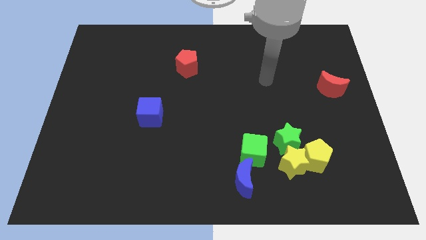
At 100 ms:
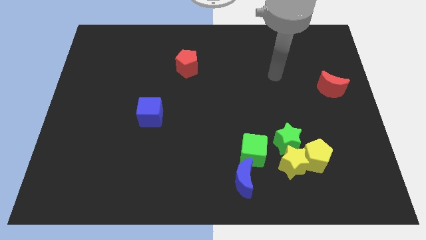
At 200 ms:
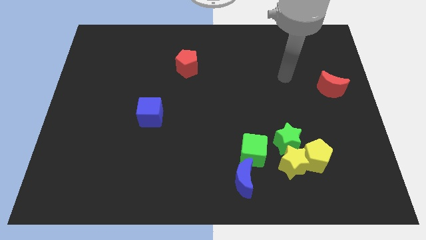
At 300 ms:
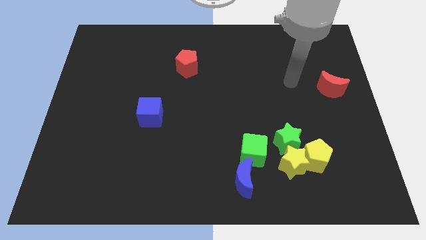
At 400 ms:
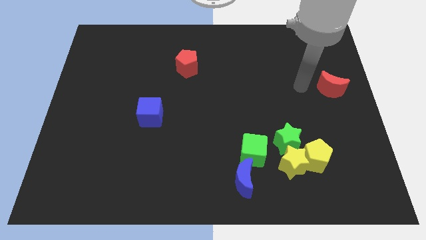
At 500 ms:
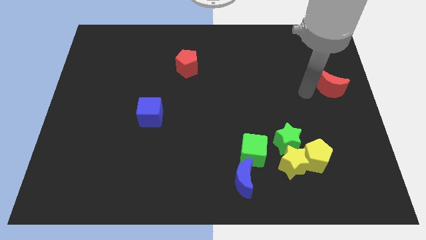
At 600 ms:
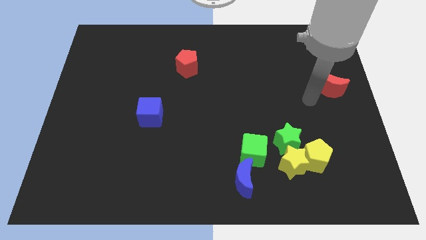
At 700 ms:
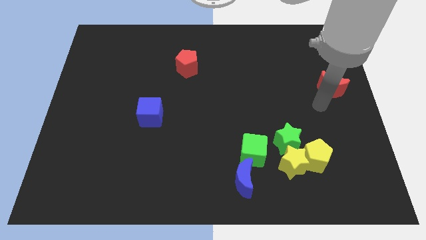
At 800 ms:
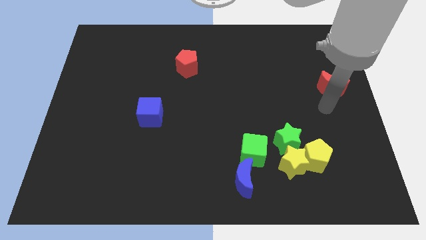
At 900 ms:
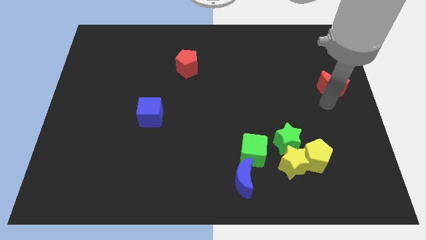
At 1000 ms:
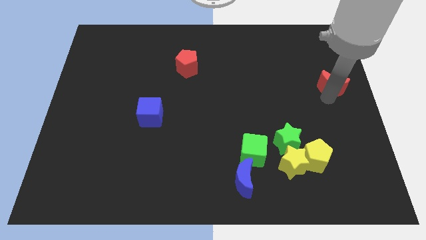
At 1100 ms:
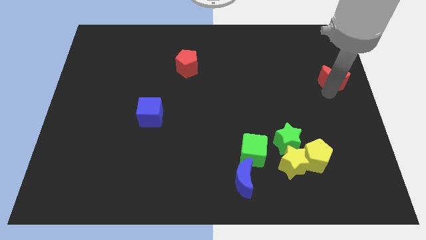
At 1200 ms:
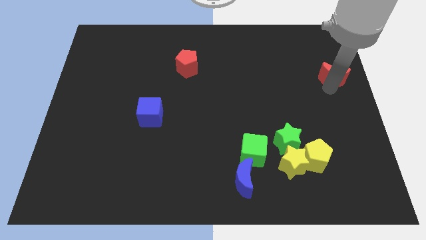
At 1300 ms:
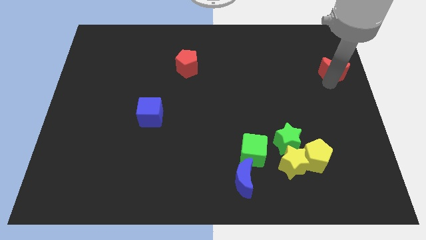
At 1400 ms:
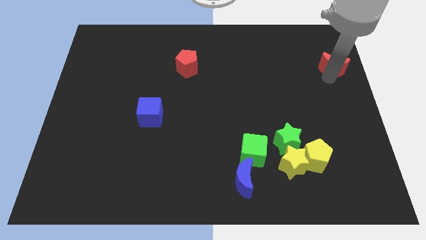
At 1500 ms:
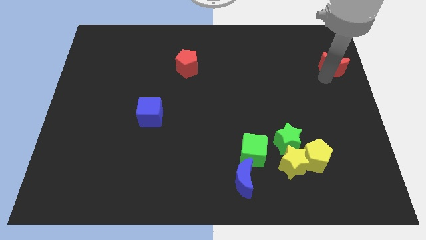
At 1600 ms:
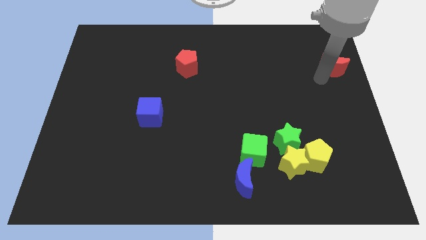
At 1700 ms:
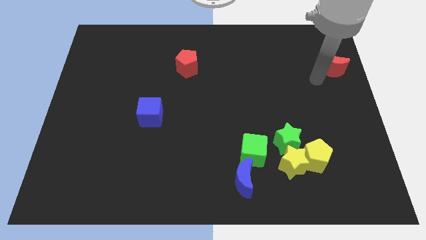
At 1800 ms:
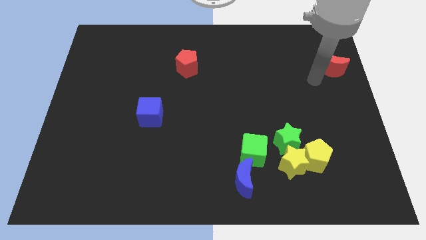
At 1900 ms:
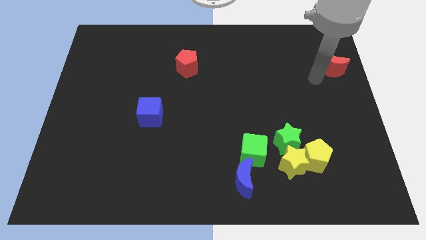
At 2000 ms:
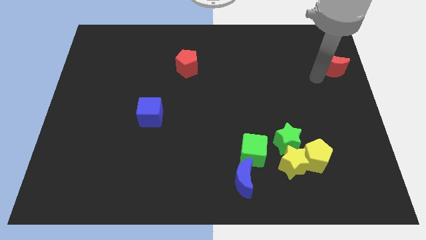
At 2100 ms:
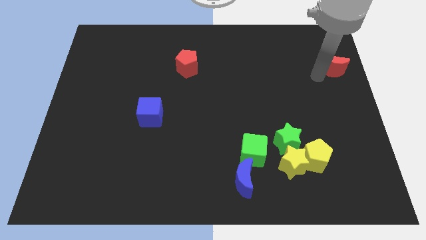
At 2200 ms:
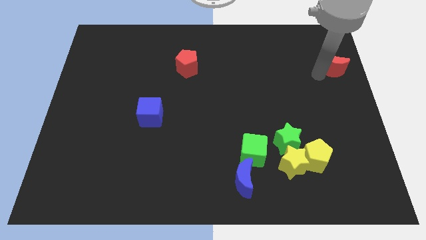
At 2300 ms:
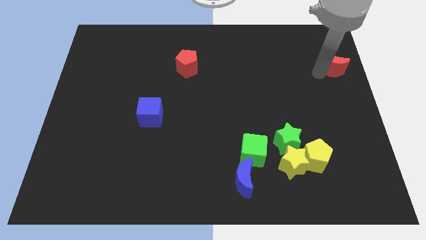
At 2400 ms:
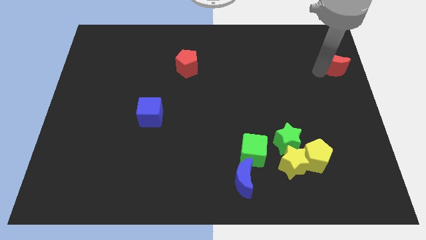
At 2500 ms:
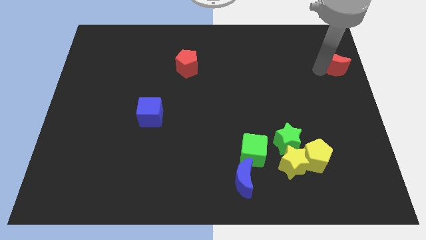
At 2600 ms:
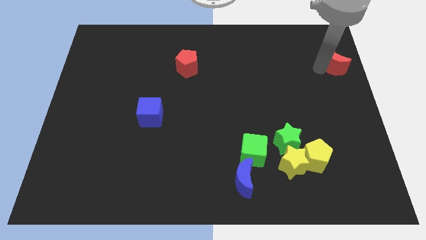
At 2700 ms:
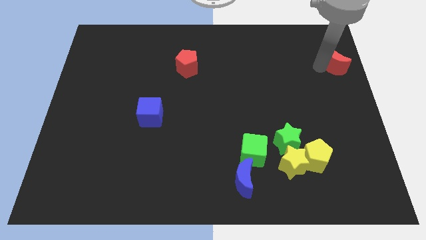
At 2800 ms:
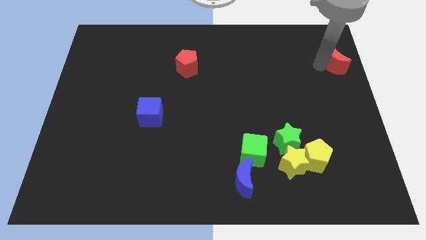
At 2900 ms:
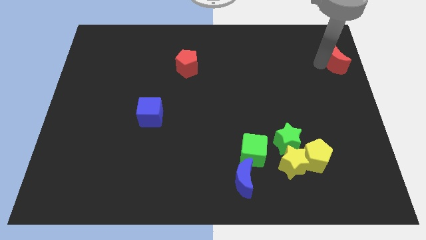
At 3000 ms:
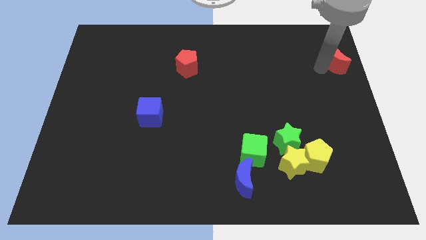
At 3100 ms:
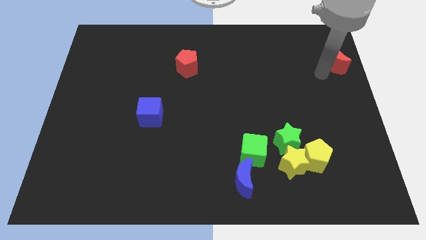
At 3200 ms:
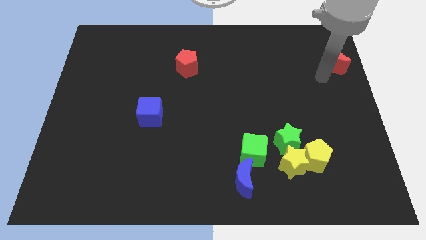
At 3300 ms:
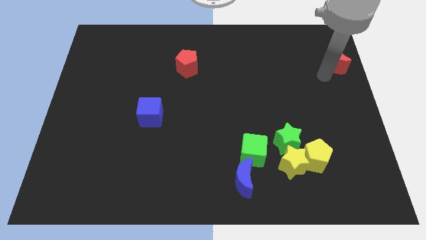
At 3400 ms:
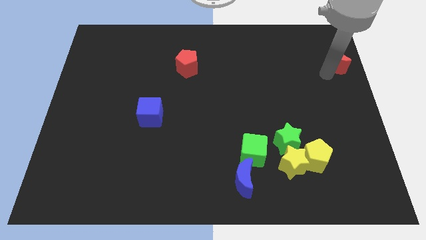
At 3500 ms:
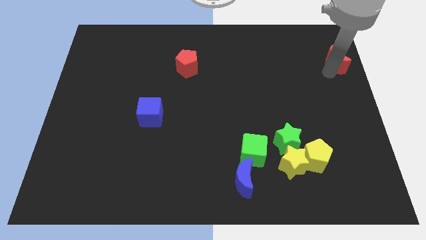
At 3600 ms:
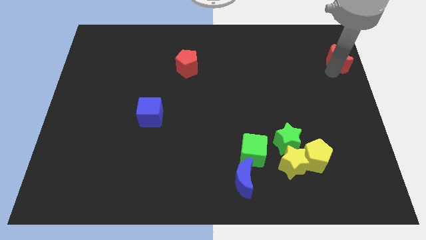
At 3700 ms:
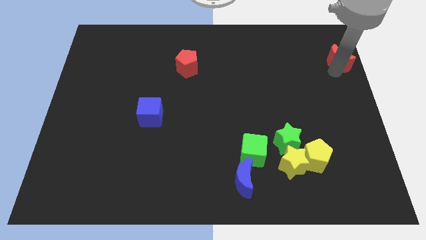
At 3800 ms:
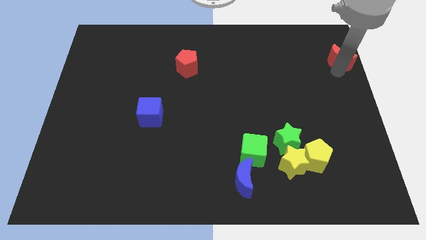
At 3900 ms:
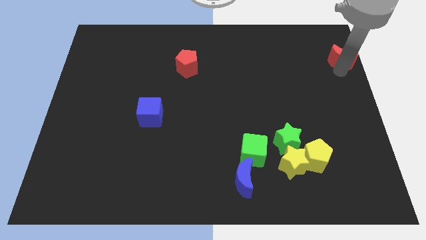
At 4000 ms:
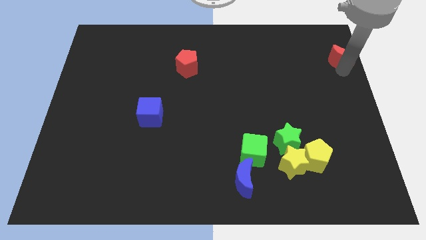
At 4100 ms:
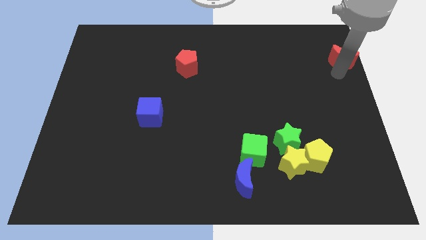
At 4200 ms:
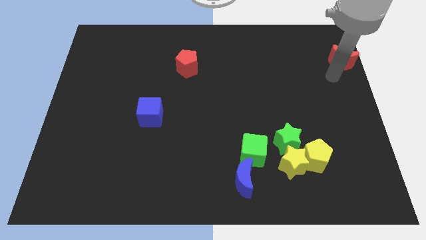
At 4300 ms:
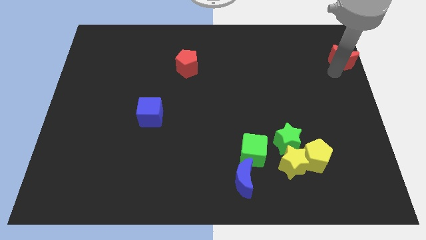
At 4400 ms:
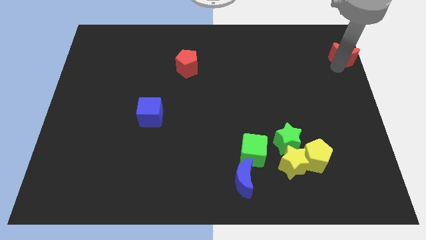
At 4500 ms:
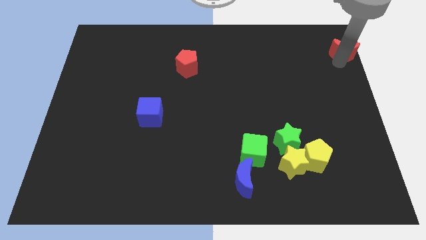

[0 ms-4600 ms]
put the red moon to the upper right corner

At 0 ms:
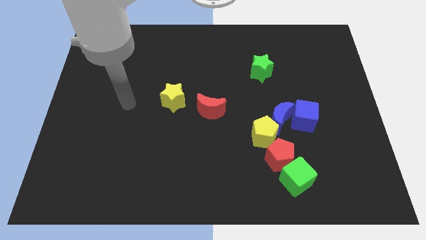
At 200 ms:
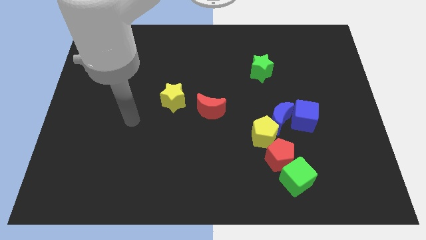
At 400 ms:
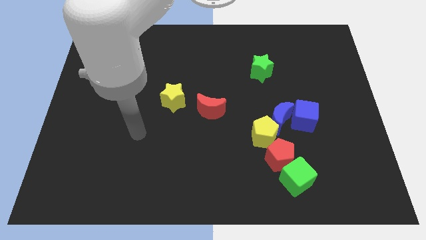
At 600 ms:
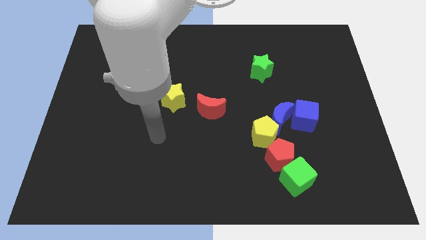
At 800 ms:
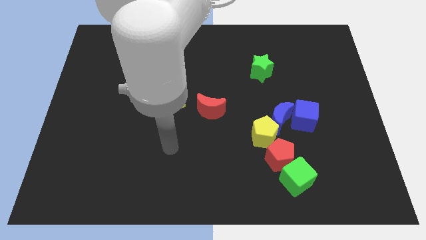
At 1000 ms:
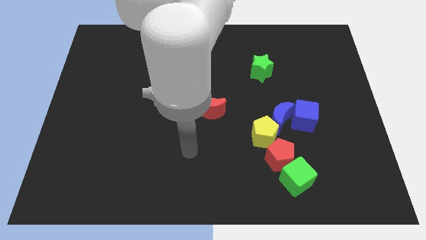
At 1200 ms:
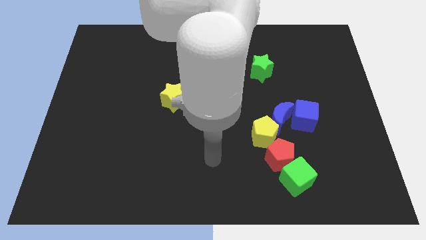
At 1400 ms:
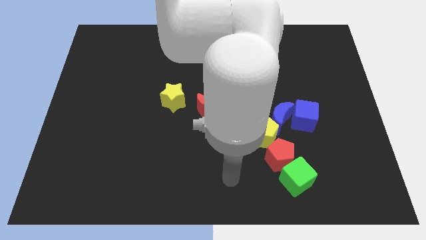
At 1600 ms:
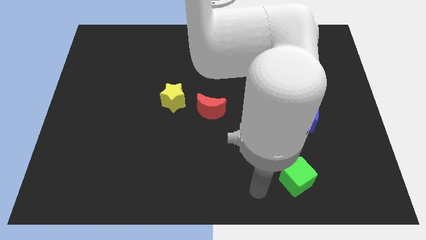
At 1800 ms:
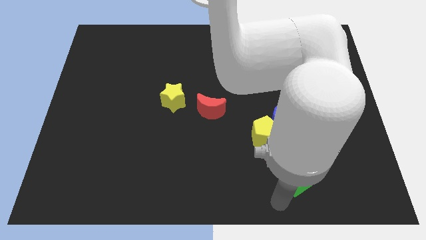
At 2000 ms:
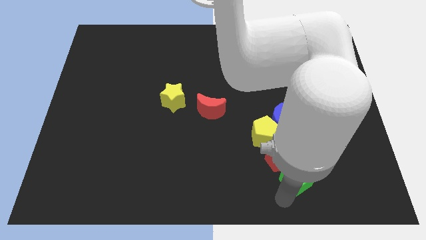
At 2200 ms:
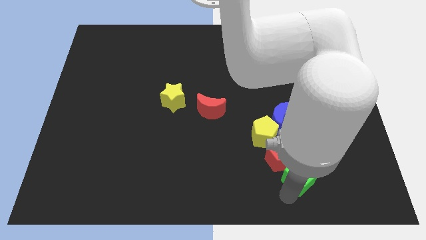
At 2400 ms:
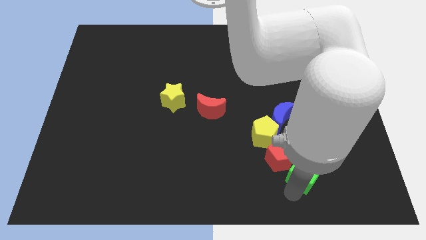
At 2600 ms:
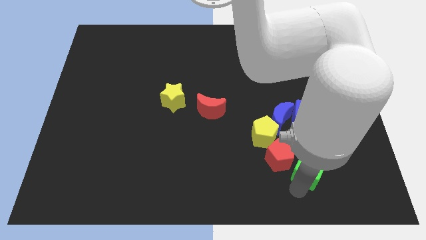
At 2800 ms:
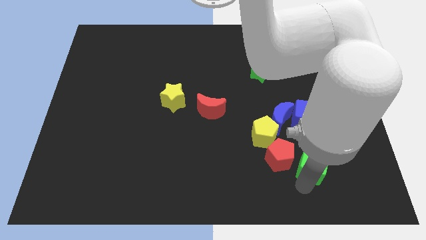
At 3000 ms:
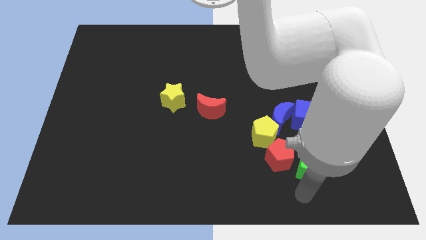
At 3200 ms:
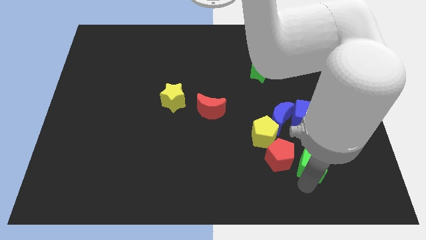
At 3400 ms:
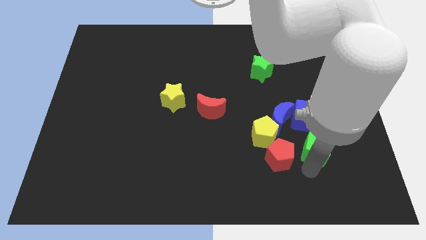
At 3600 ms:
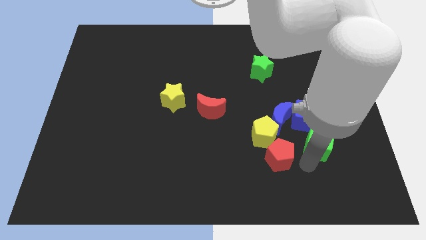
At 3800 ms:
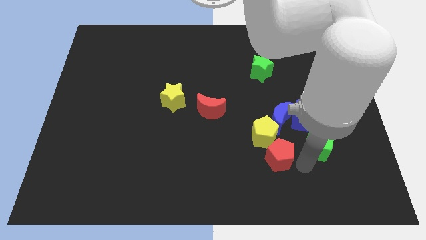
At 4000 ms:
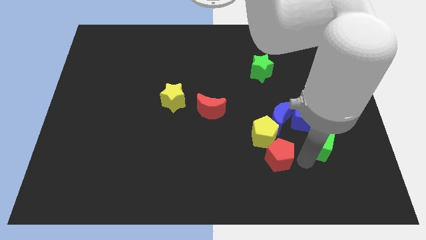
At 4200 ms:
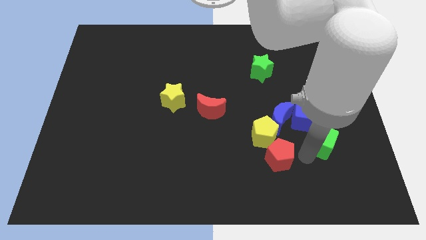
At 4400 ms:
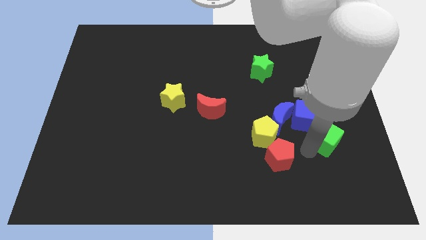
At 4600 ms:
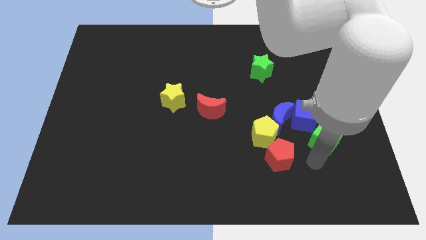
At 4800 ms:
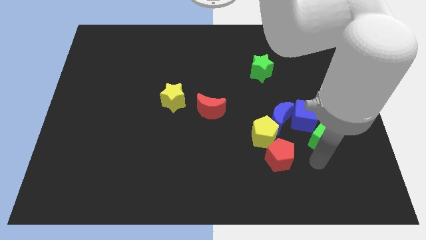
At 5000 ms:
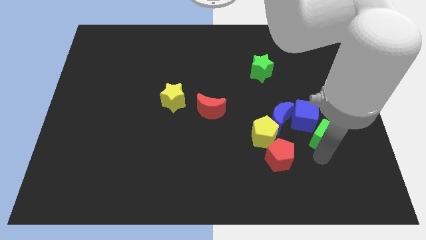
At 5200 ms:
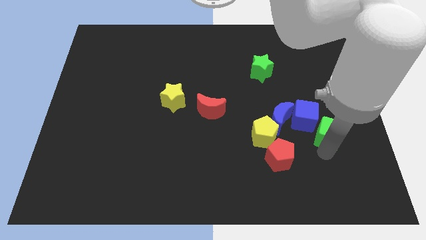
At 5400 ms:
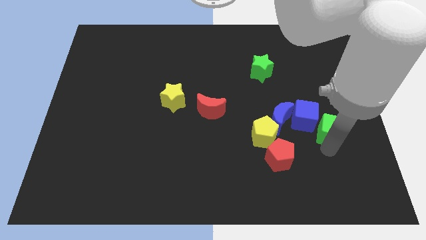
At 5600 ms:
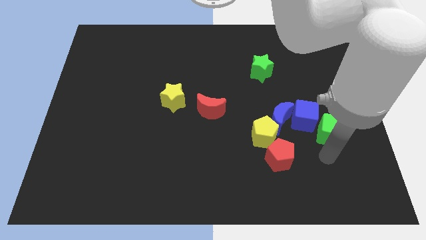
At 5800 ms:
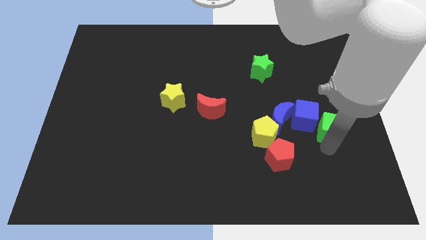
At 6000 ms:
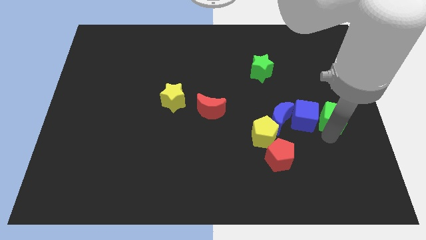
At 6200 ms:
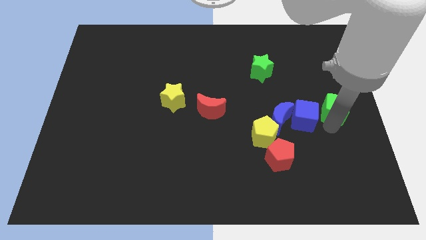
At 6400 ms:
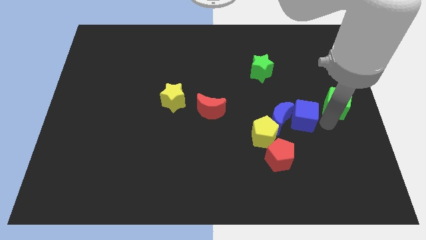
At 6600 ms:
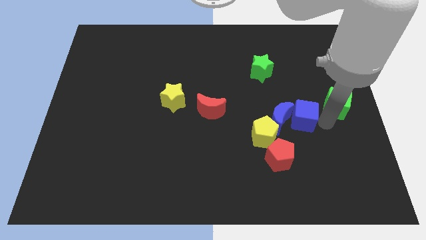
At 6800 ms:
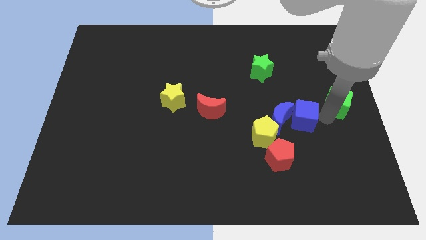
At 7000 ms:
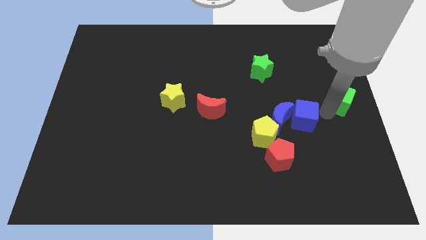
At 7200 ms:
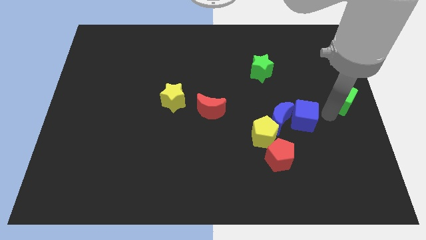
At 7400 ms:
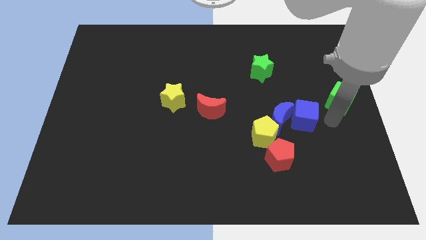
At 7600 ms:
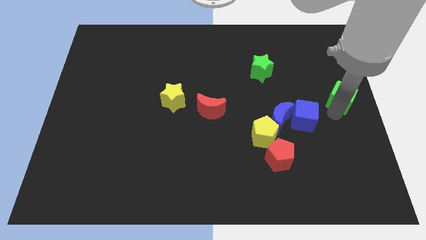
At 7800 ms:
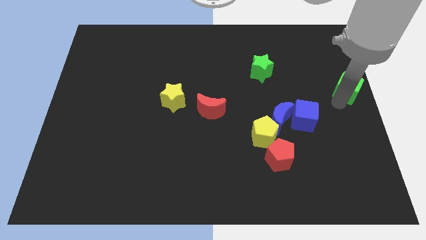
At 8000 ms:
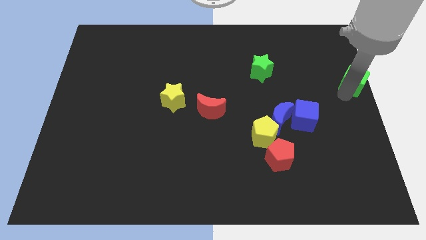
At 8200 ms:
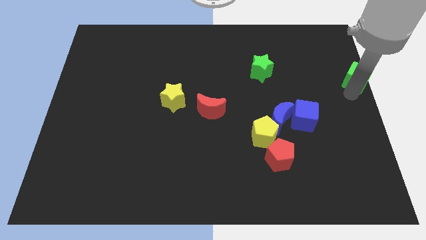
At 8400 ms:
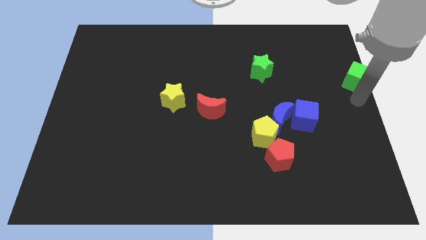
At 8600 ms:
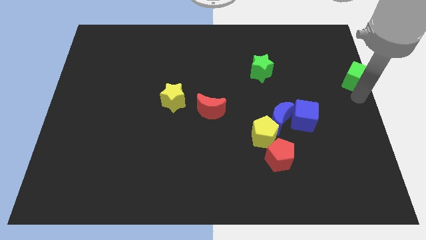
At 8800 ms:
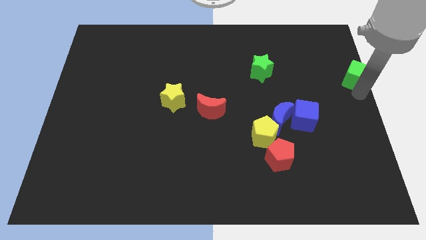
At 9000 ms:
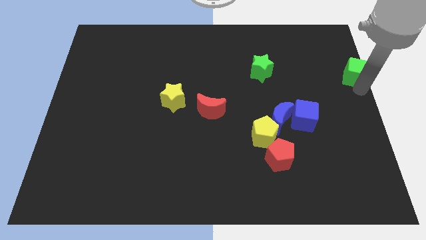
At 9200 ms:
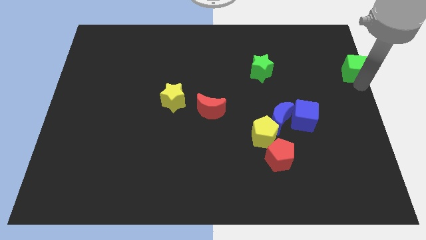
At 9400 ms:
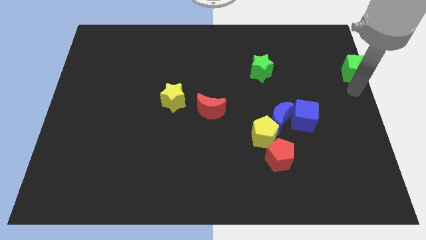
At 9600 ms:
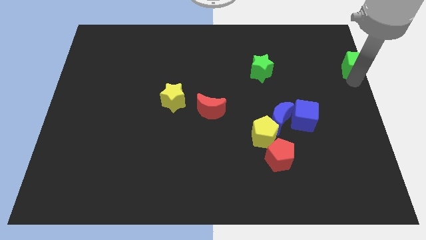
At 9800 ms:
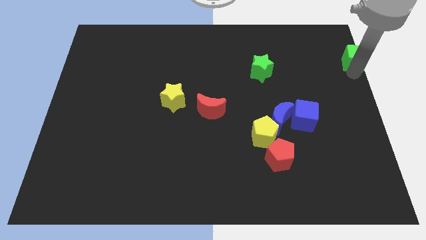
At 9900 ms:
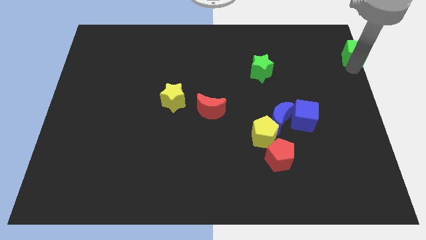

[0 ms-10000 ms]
move the green cube to the top right
